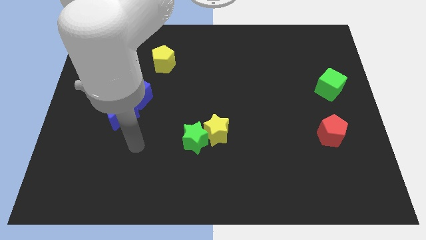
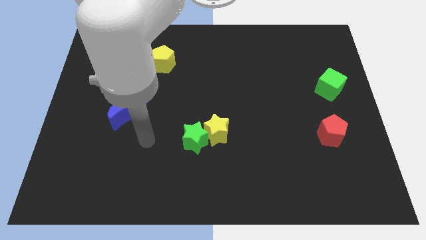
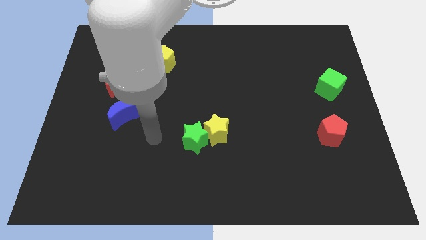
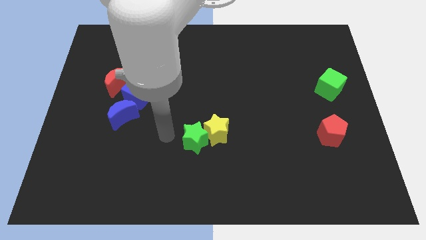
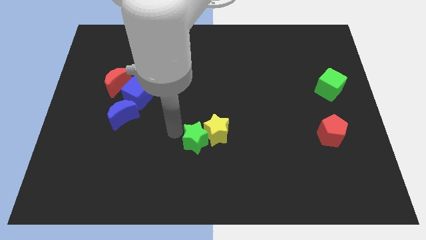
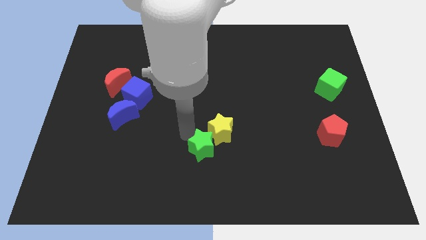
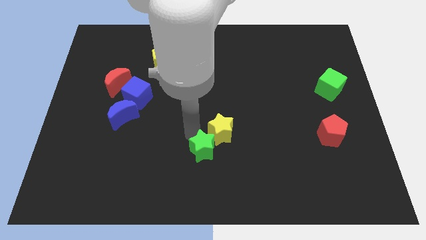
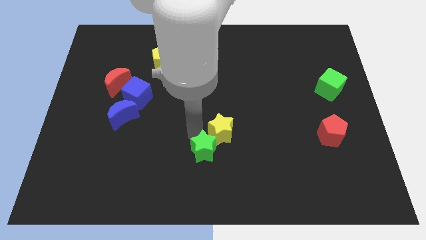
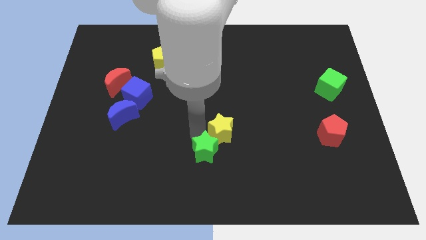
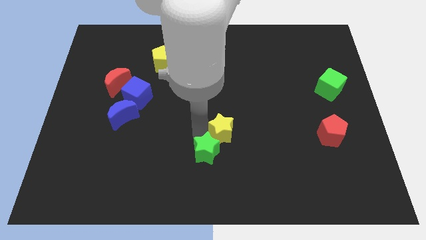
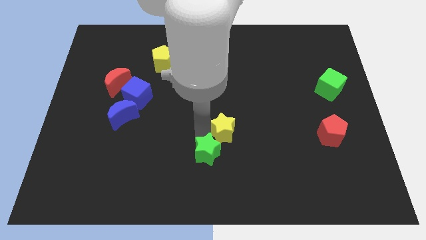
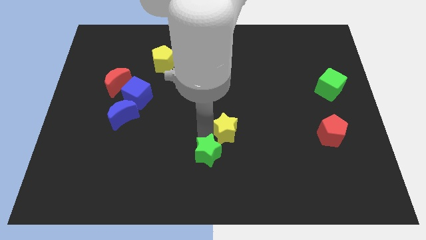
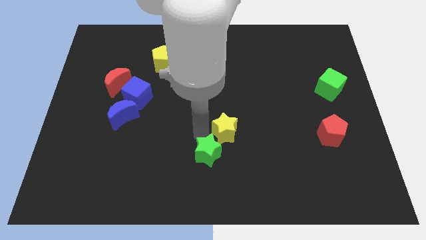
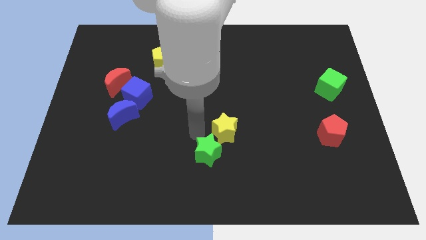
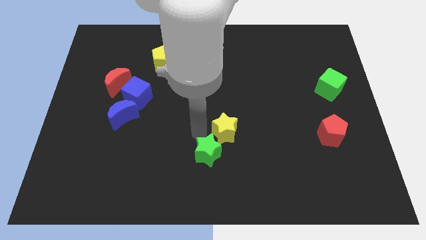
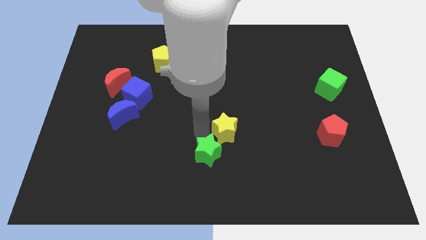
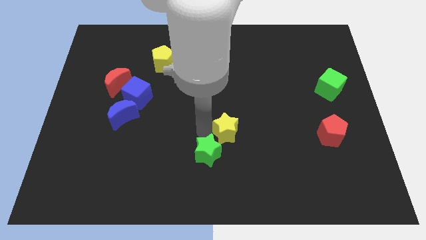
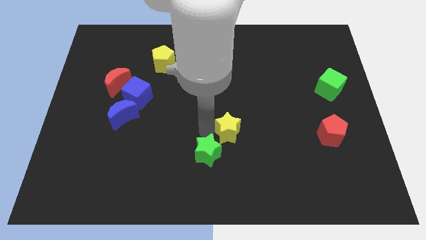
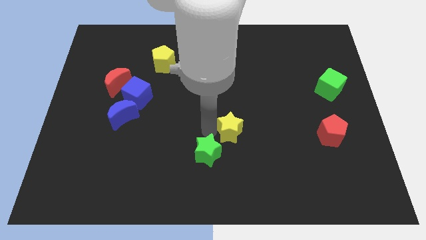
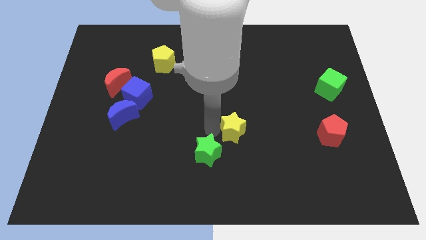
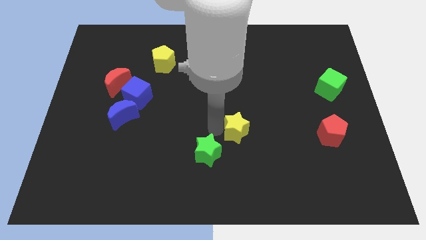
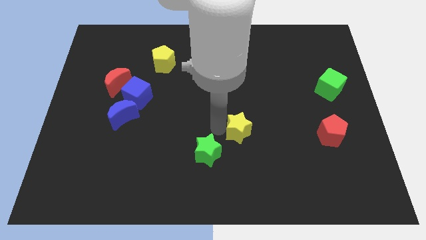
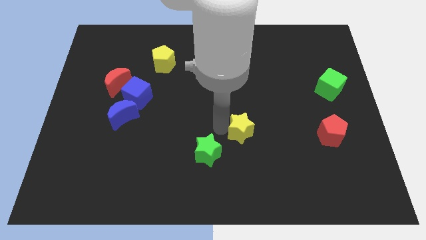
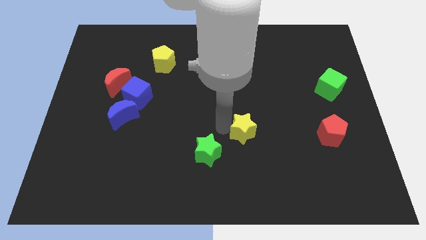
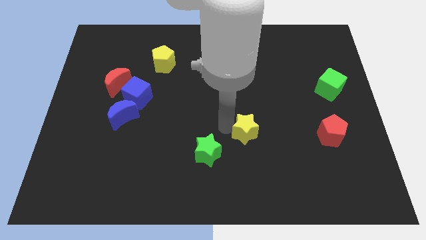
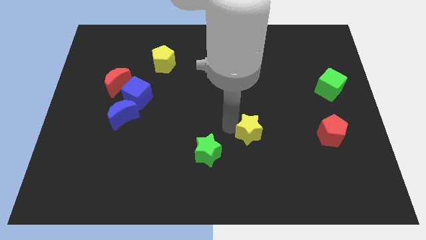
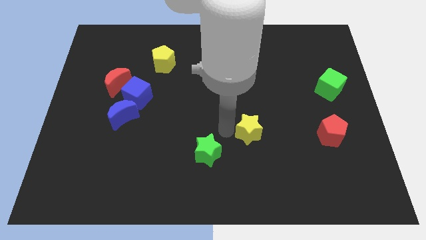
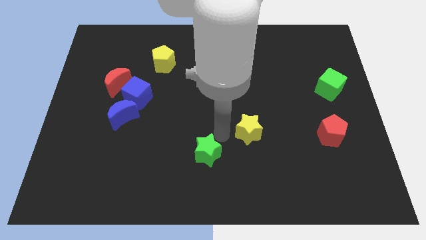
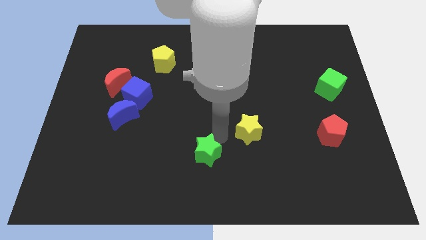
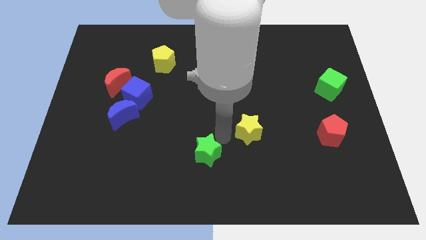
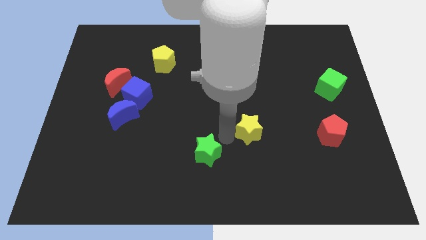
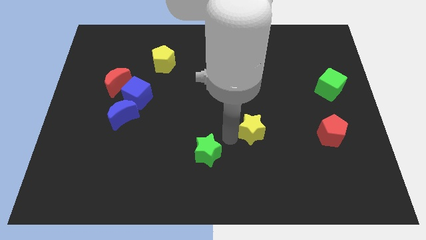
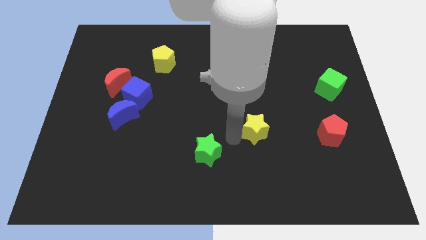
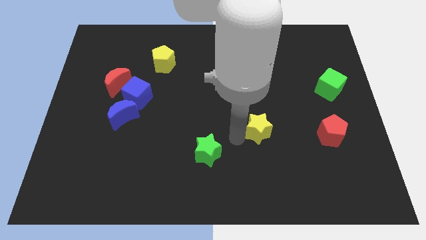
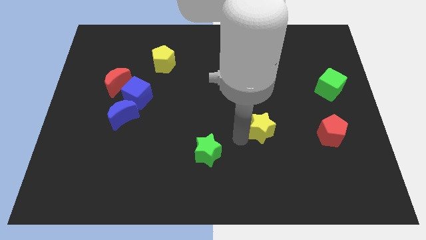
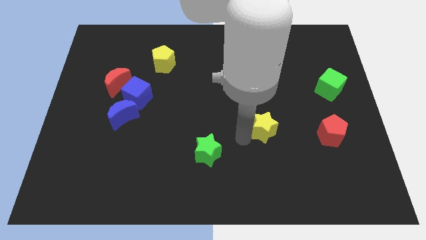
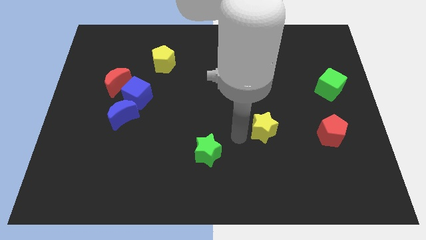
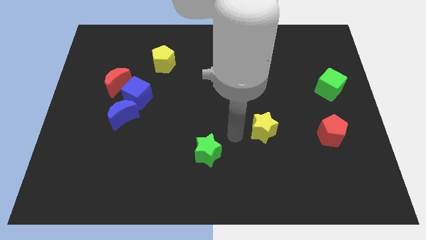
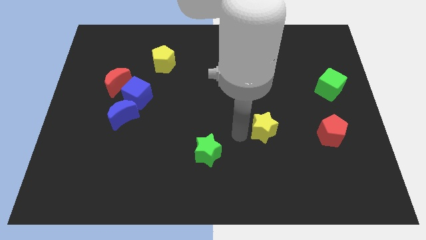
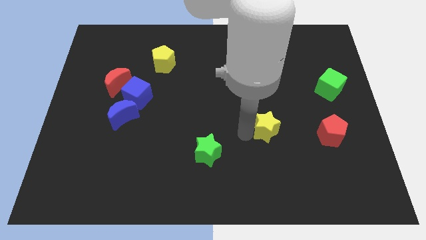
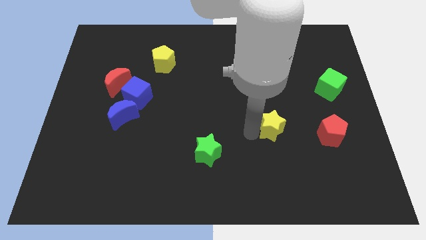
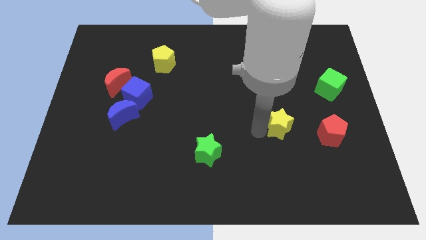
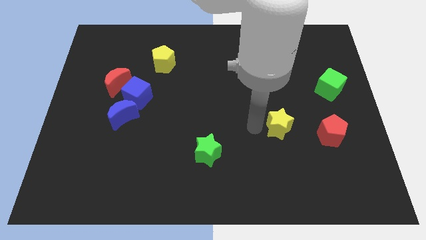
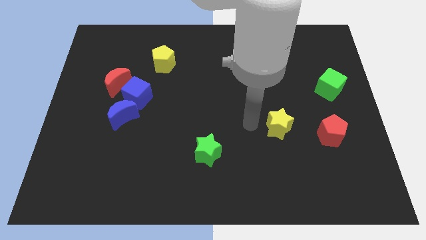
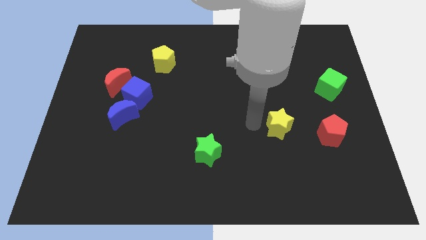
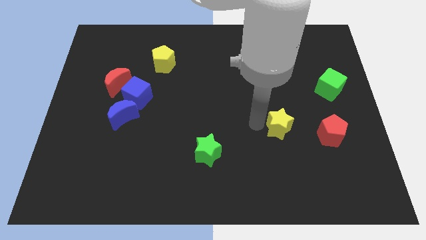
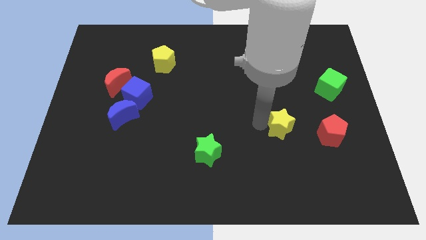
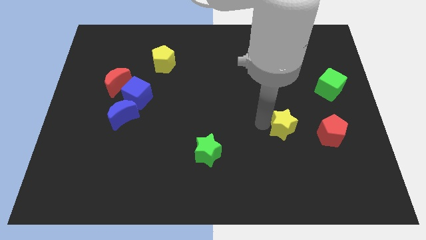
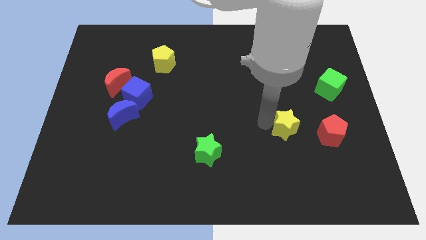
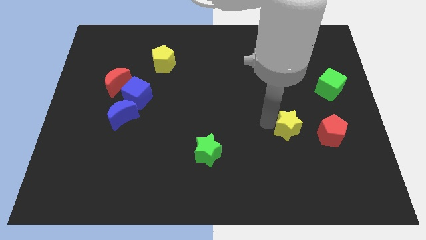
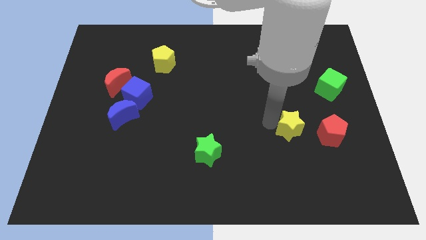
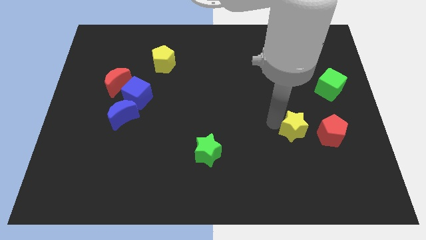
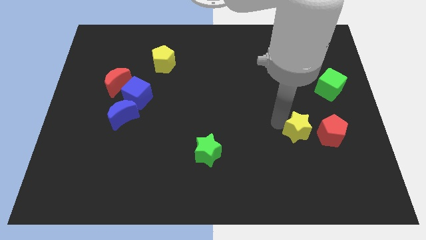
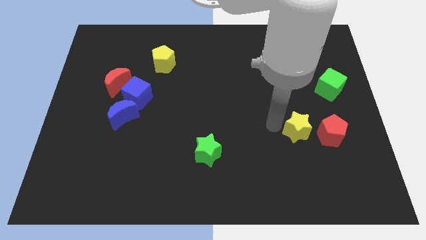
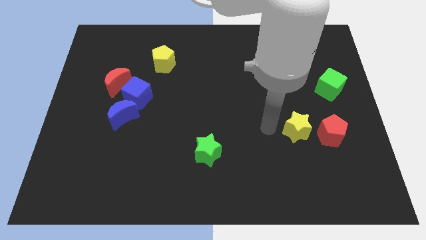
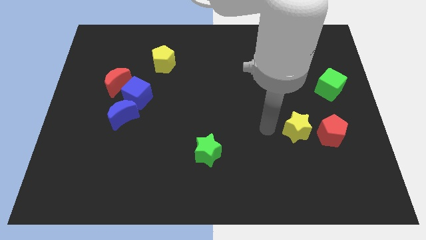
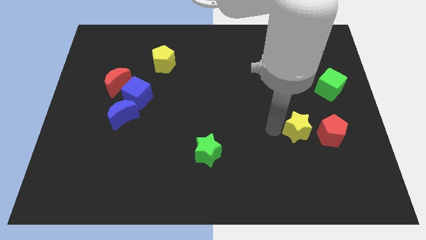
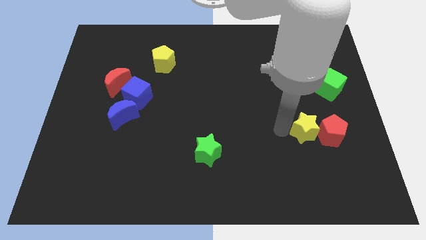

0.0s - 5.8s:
move the yellow star close to the red pentagon

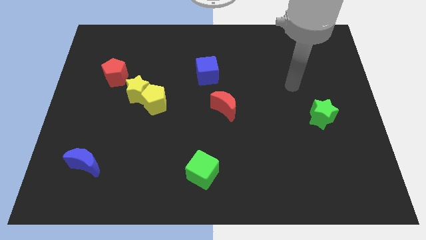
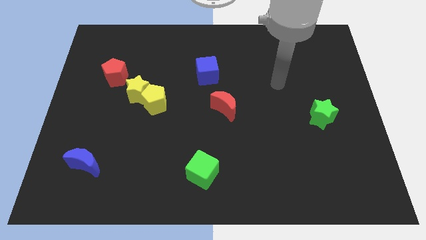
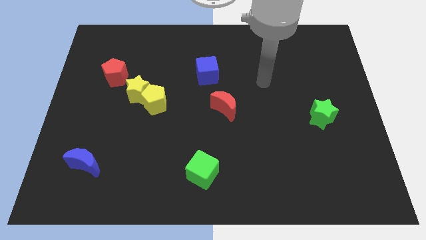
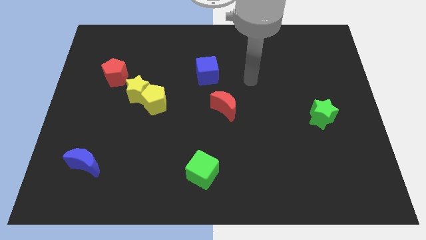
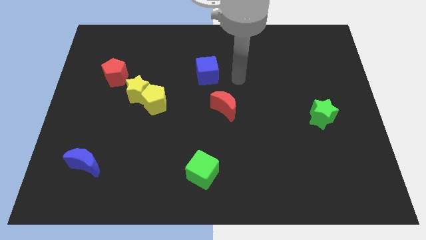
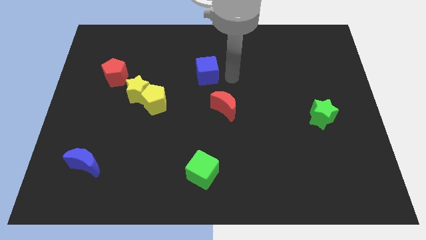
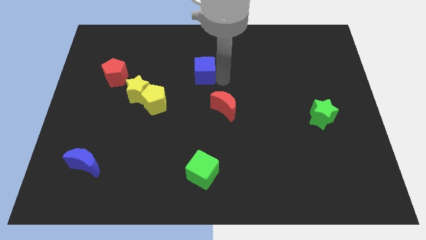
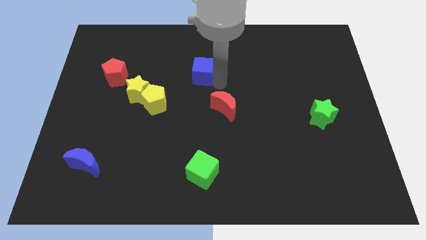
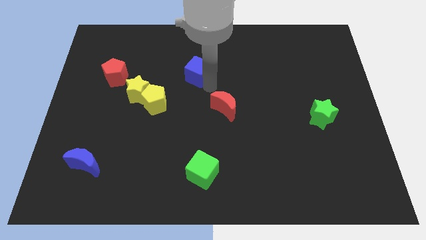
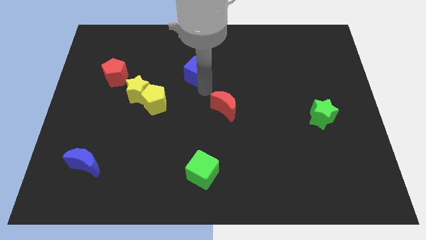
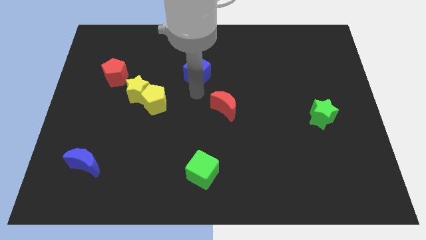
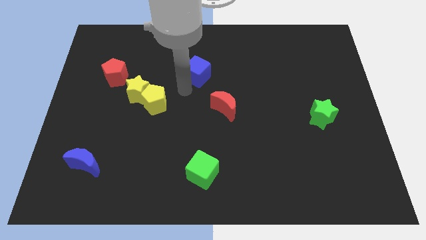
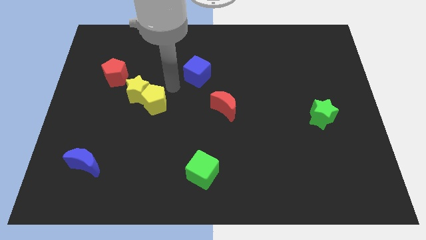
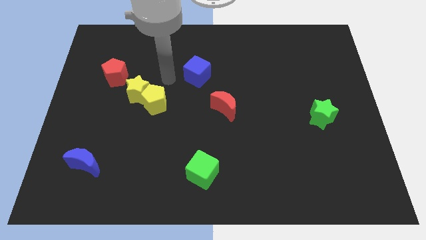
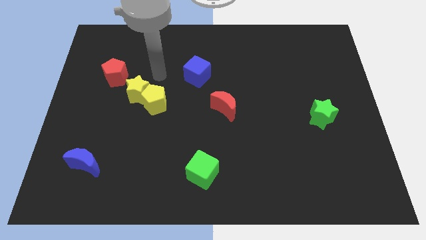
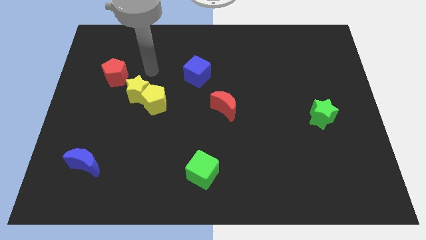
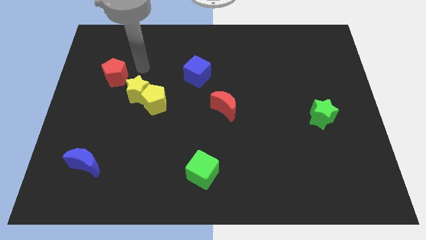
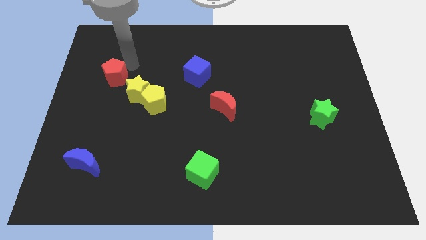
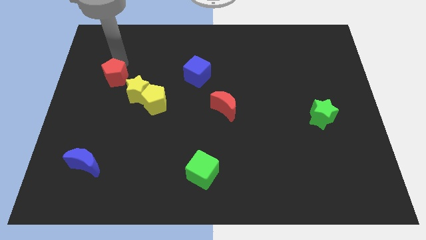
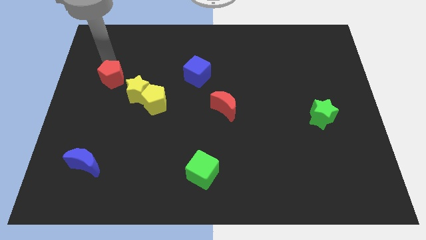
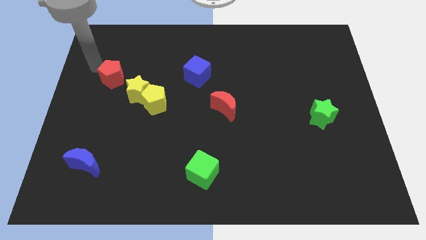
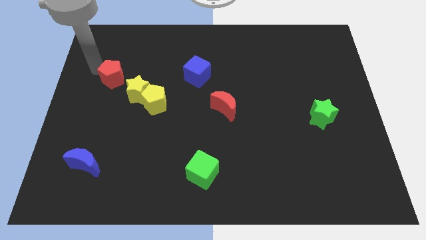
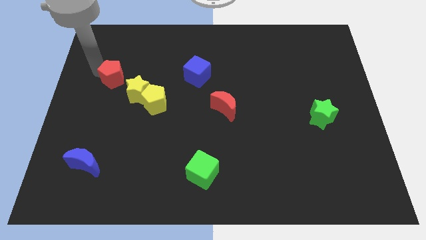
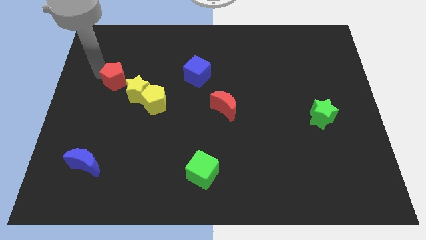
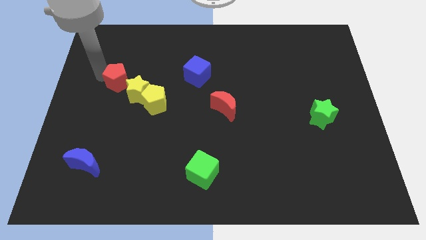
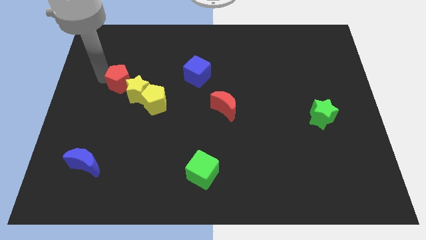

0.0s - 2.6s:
push the red pentagon to the yellow star
